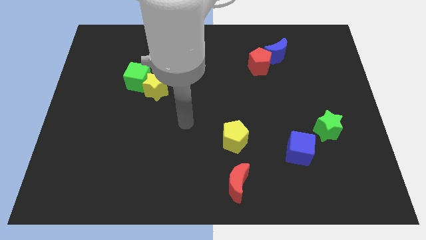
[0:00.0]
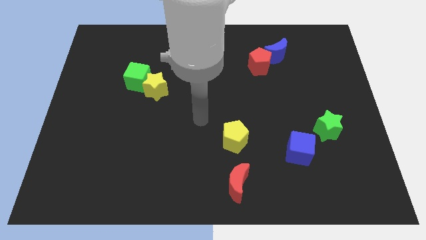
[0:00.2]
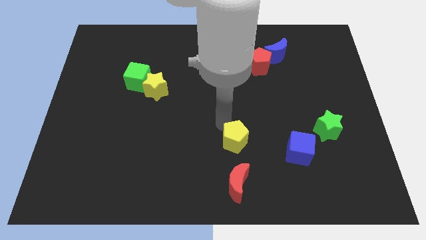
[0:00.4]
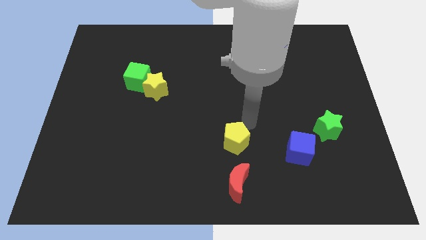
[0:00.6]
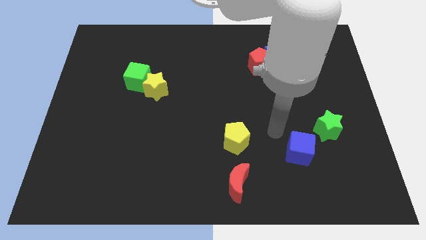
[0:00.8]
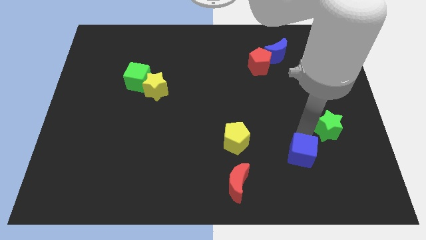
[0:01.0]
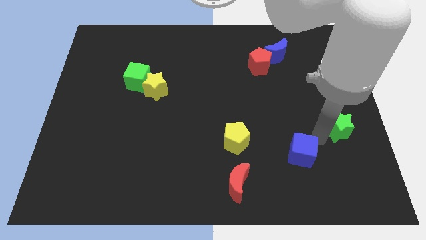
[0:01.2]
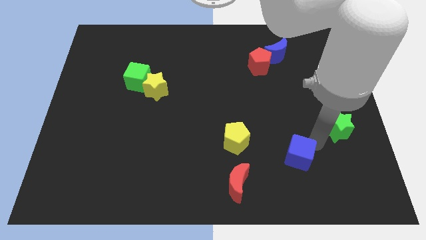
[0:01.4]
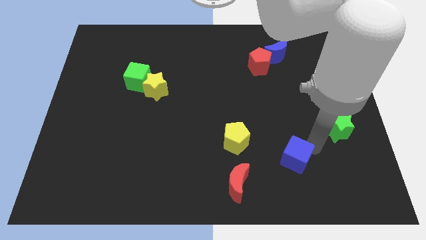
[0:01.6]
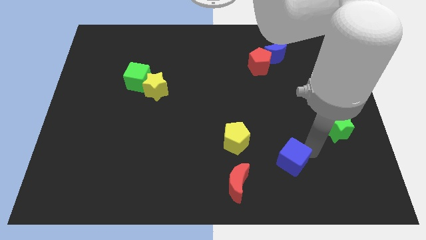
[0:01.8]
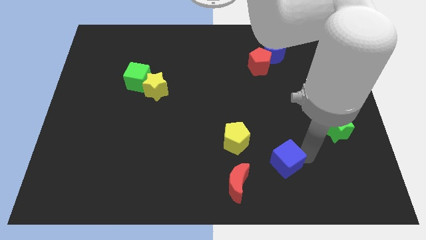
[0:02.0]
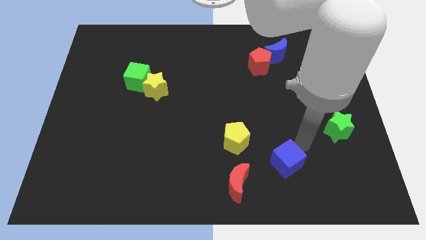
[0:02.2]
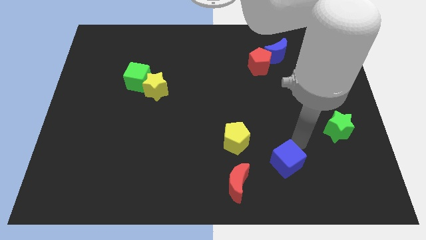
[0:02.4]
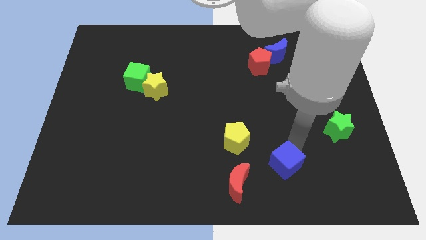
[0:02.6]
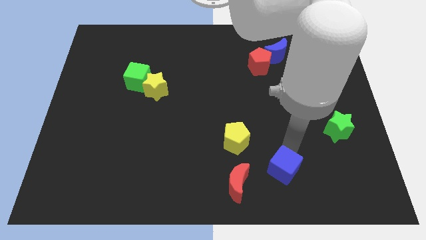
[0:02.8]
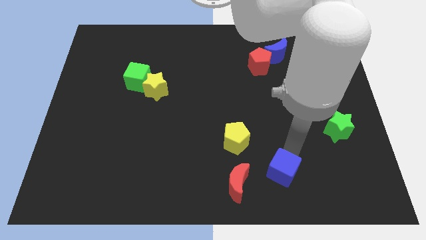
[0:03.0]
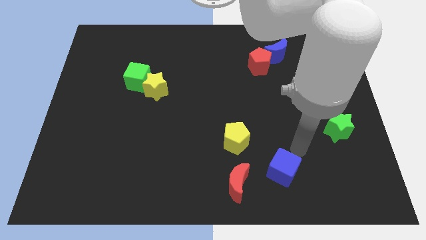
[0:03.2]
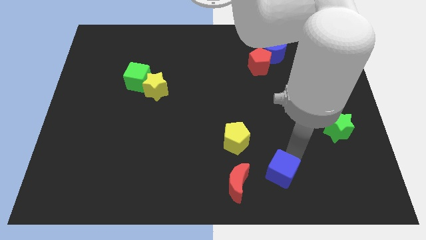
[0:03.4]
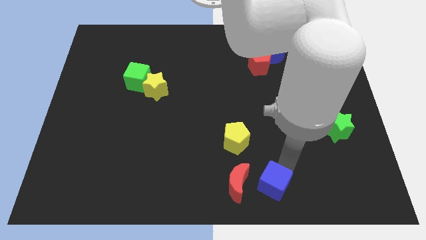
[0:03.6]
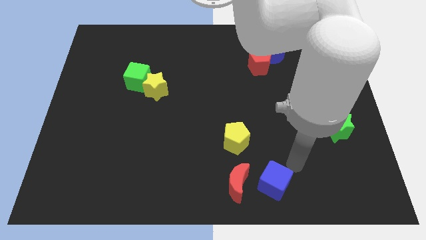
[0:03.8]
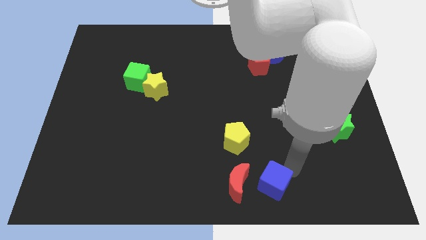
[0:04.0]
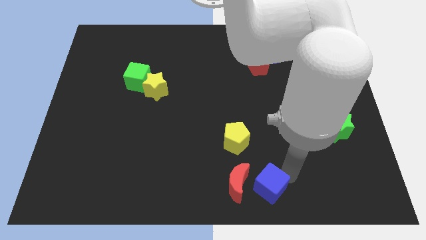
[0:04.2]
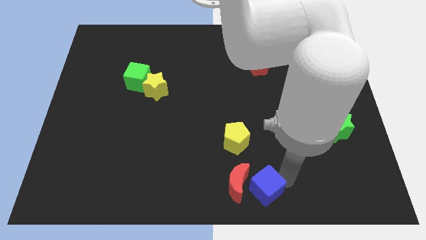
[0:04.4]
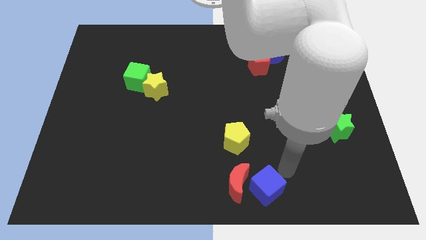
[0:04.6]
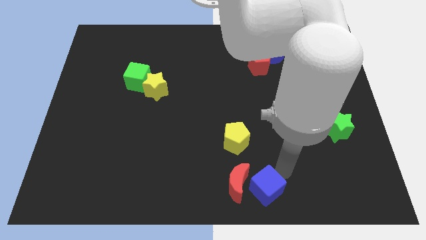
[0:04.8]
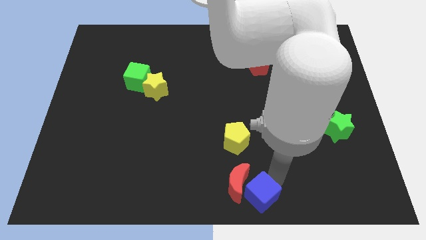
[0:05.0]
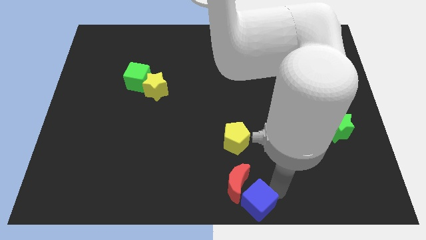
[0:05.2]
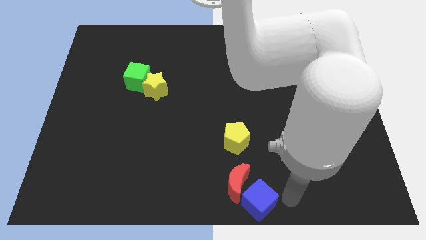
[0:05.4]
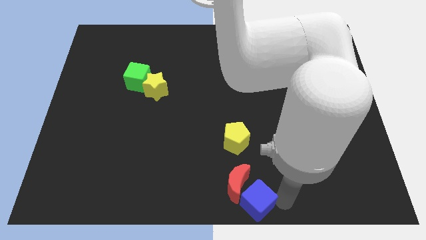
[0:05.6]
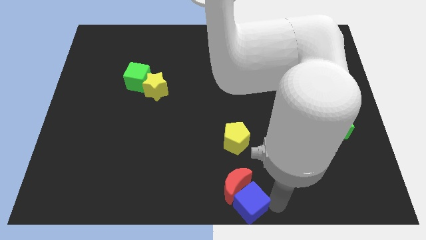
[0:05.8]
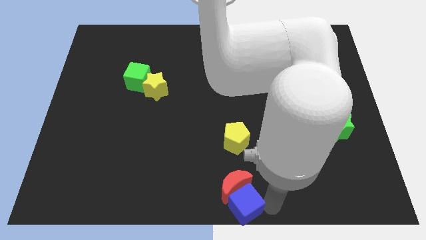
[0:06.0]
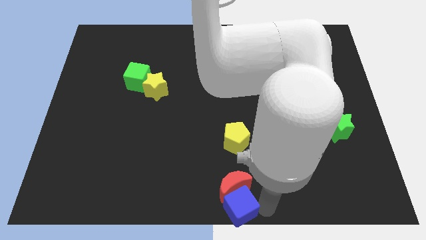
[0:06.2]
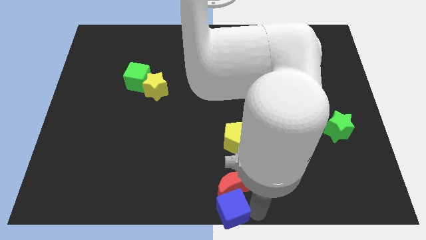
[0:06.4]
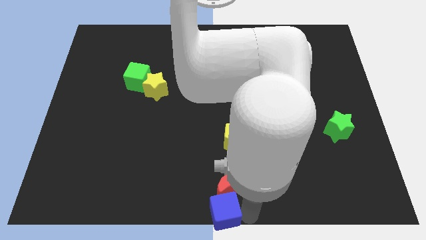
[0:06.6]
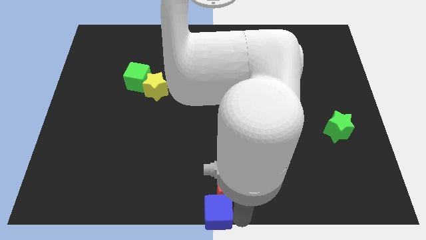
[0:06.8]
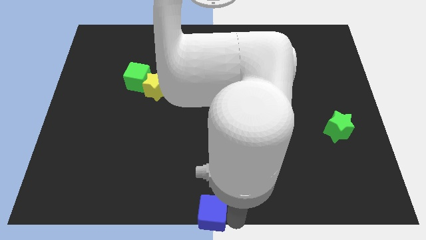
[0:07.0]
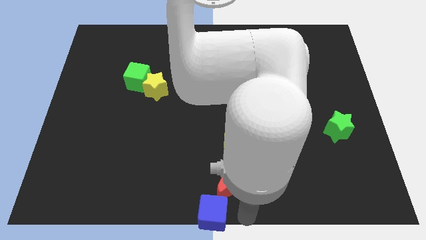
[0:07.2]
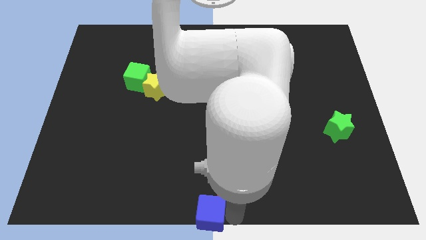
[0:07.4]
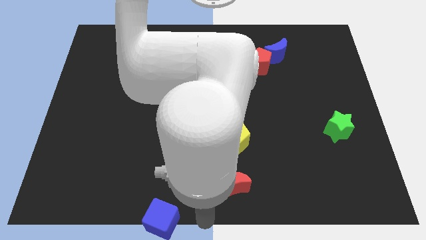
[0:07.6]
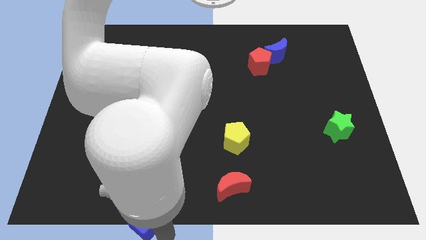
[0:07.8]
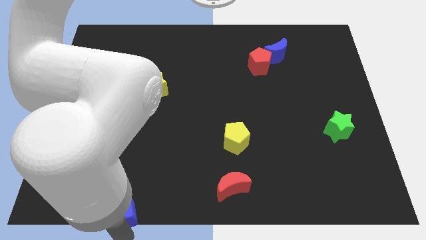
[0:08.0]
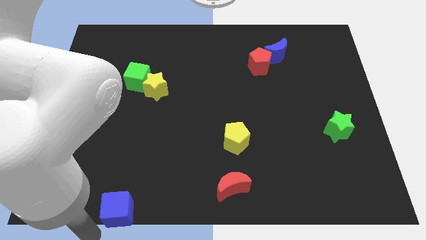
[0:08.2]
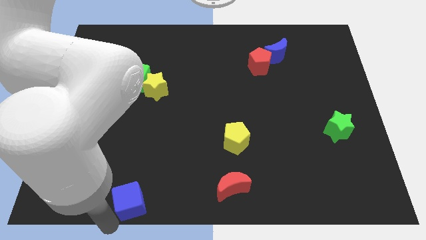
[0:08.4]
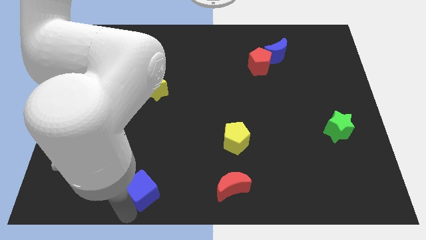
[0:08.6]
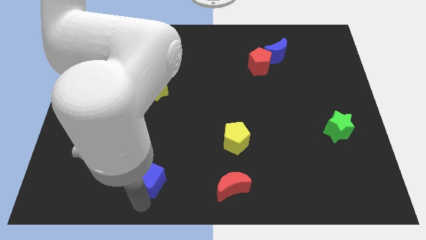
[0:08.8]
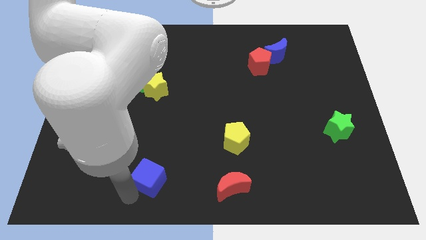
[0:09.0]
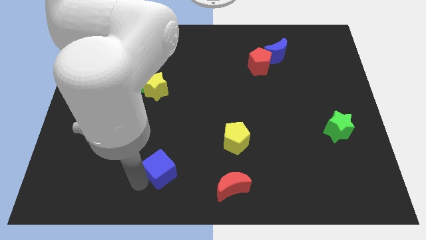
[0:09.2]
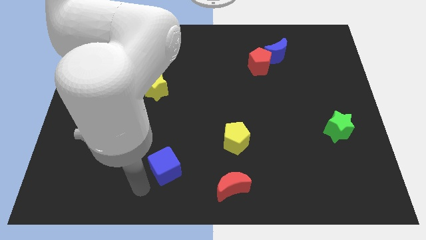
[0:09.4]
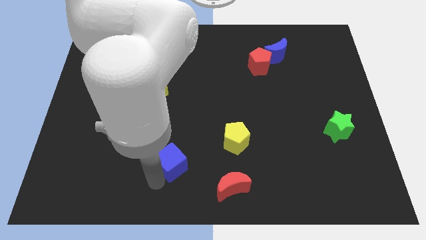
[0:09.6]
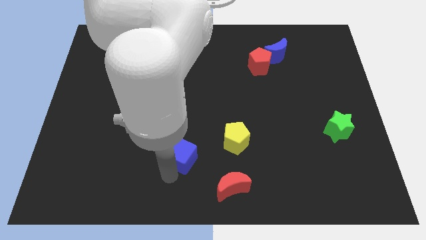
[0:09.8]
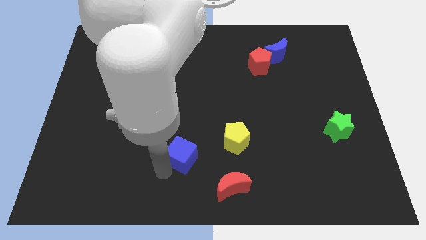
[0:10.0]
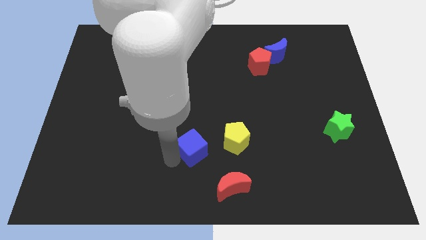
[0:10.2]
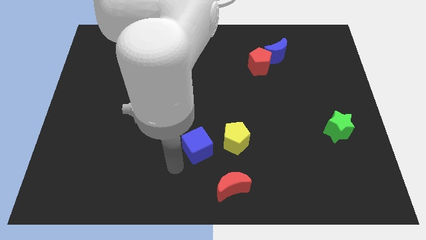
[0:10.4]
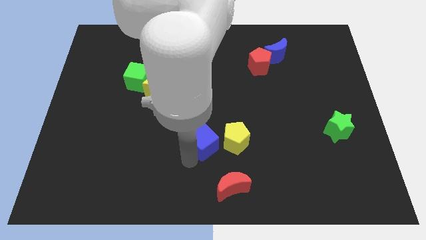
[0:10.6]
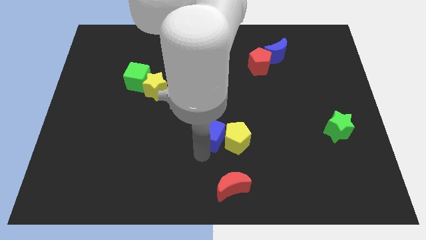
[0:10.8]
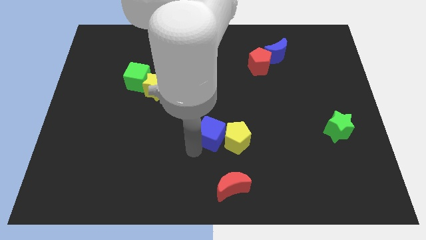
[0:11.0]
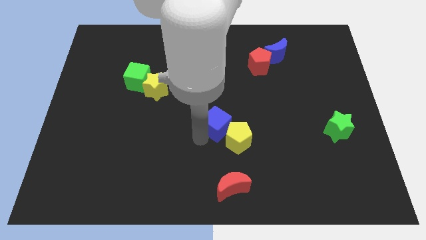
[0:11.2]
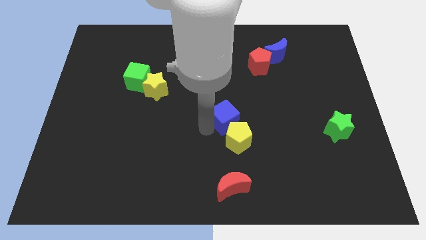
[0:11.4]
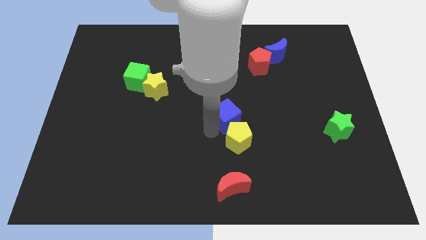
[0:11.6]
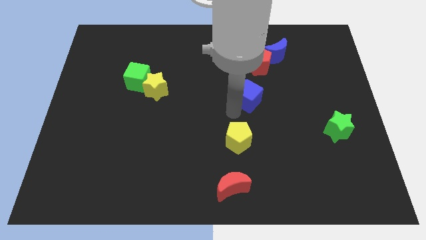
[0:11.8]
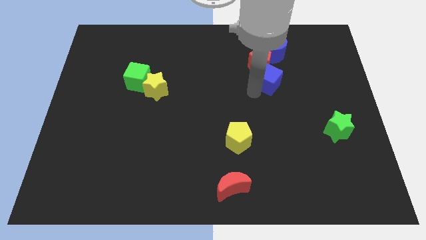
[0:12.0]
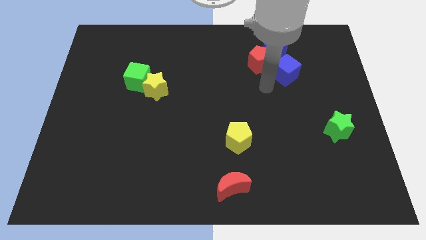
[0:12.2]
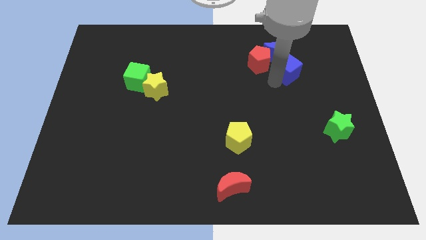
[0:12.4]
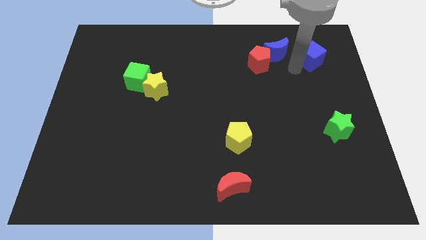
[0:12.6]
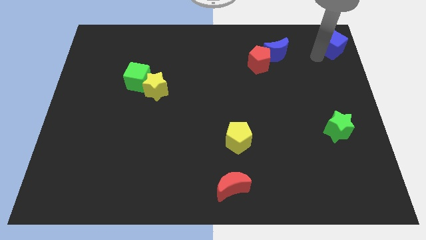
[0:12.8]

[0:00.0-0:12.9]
push the blue cube to the top right corner
